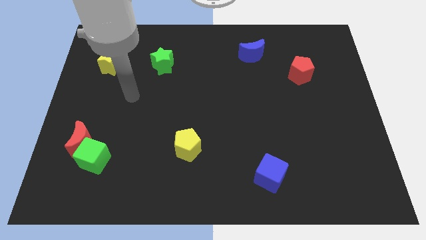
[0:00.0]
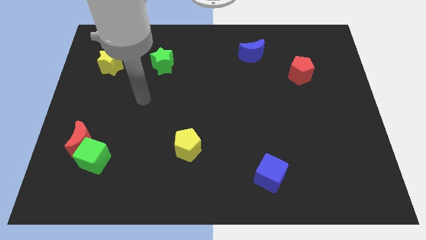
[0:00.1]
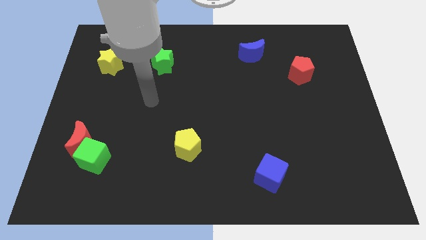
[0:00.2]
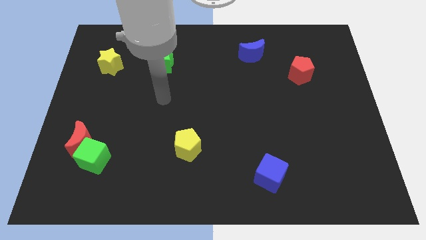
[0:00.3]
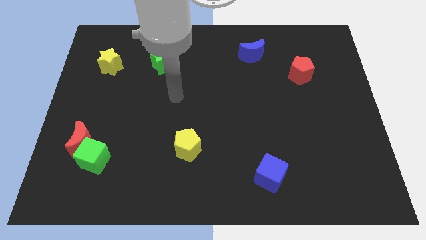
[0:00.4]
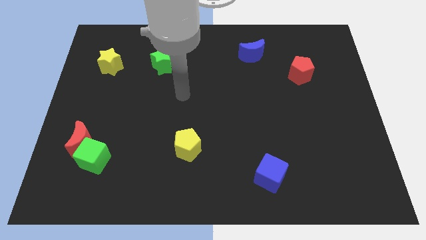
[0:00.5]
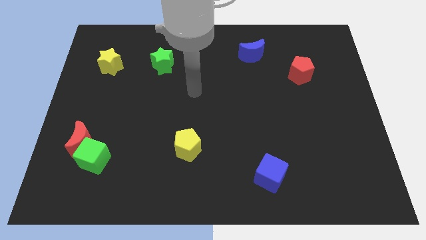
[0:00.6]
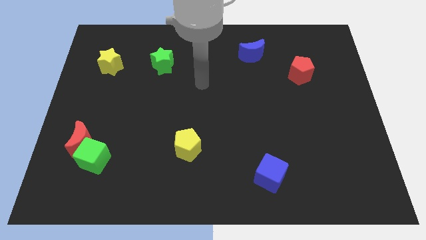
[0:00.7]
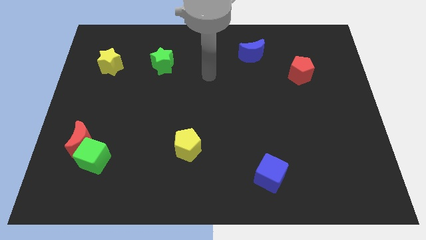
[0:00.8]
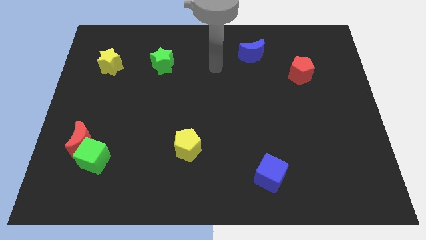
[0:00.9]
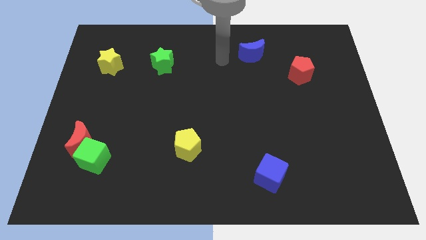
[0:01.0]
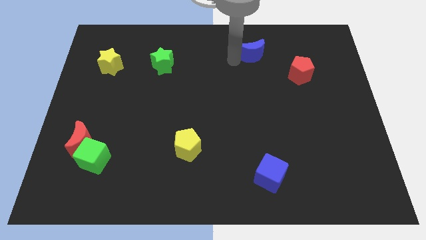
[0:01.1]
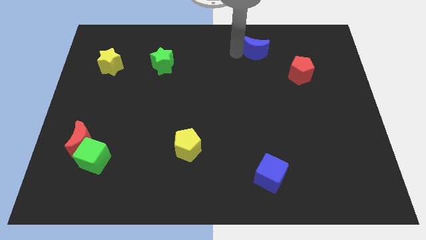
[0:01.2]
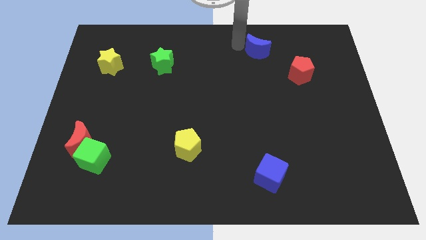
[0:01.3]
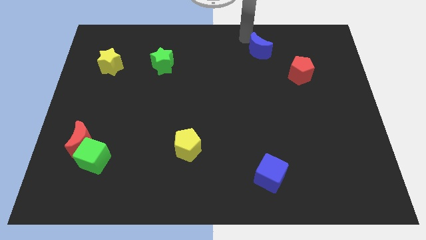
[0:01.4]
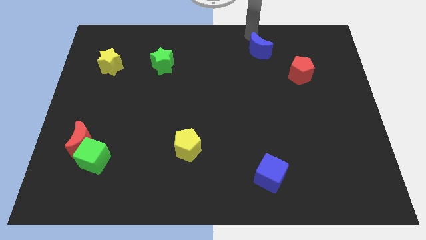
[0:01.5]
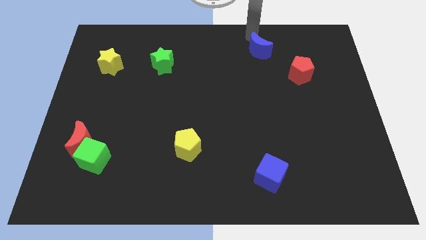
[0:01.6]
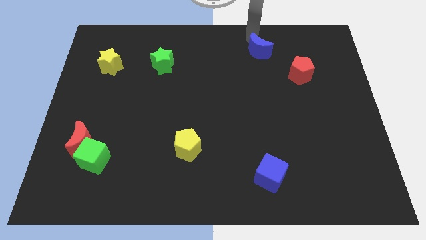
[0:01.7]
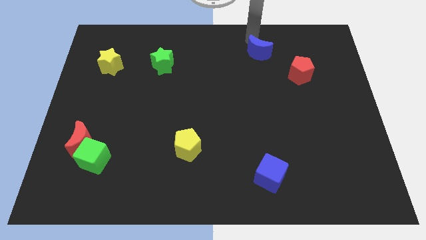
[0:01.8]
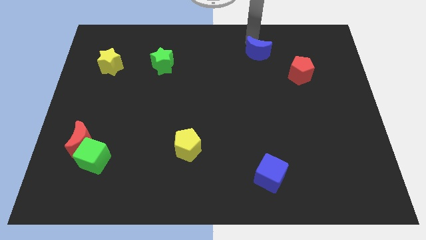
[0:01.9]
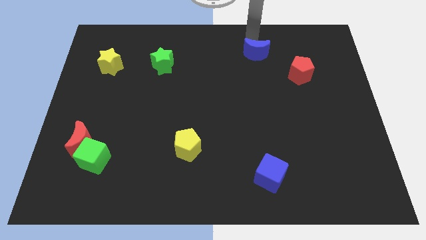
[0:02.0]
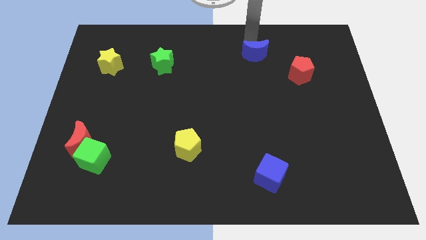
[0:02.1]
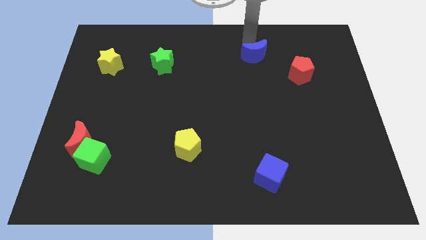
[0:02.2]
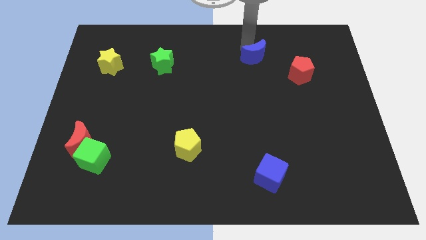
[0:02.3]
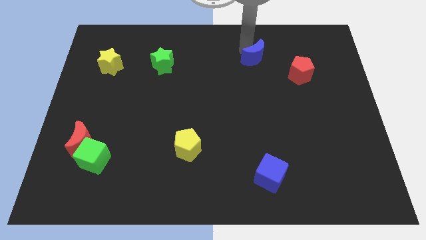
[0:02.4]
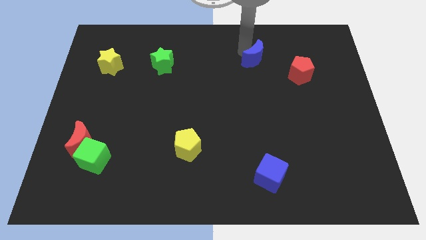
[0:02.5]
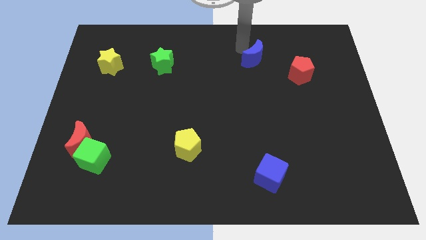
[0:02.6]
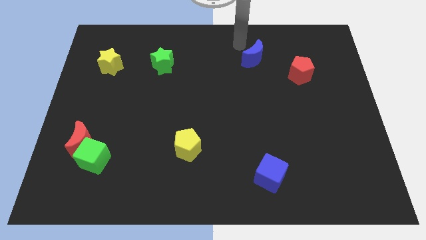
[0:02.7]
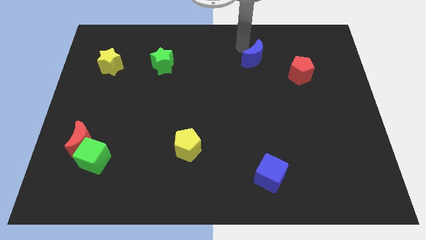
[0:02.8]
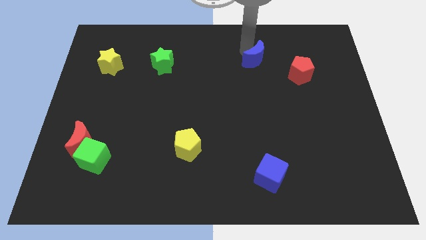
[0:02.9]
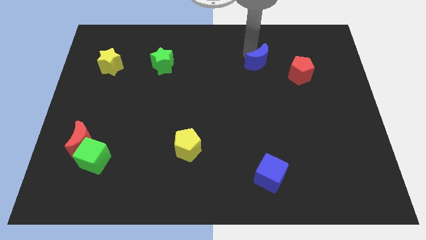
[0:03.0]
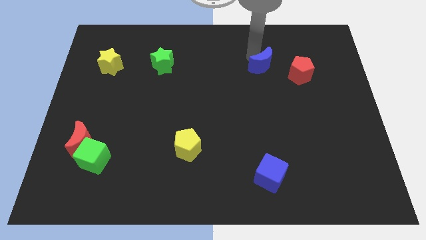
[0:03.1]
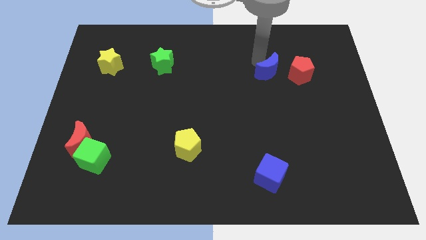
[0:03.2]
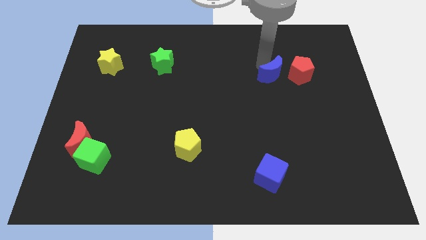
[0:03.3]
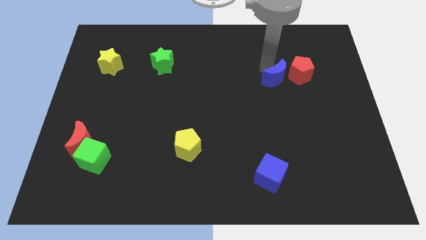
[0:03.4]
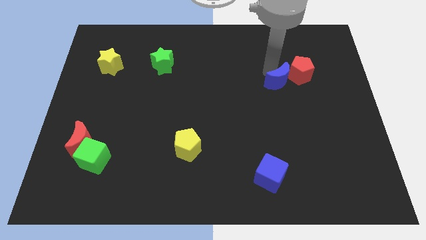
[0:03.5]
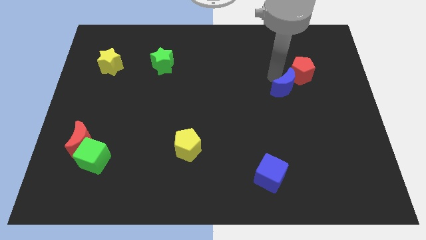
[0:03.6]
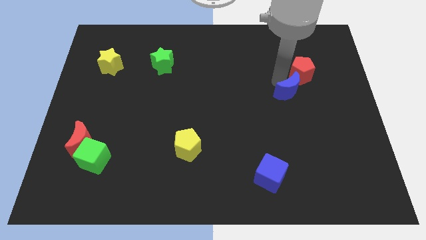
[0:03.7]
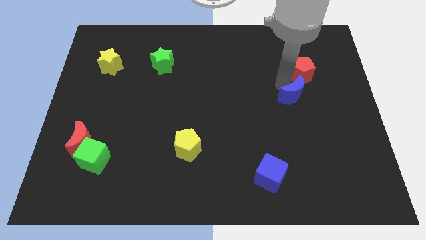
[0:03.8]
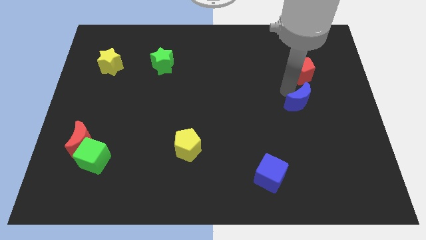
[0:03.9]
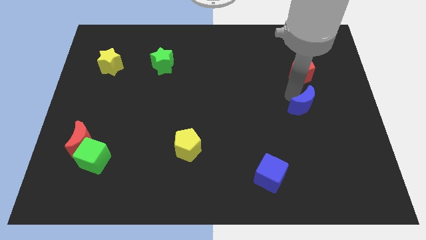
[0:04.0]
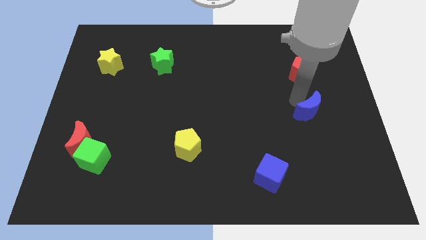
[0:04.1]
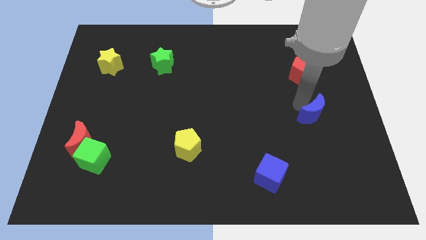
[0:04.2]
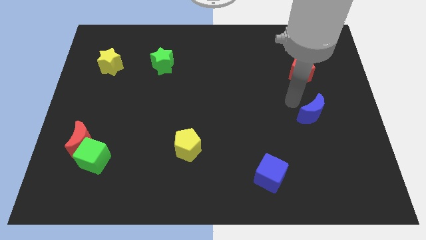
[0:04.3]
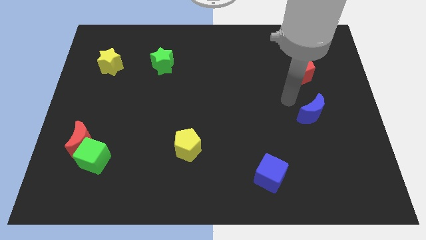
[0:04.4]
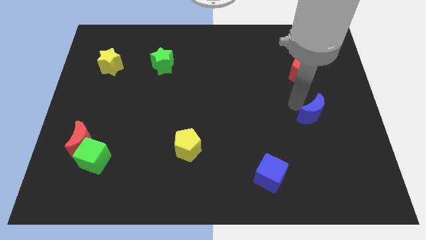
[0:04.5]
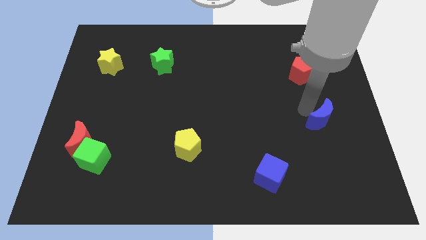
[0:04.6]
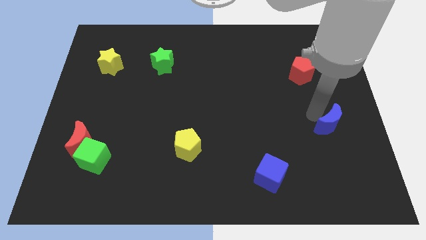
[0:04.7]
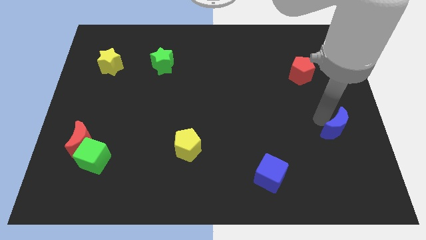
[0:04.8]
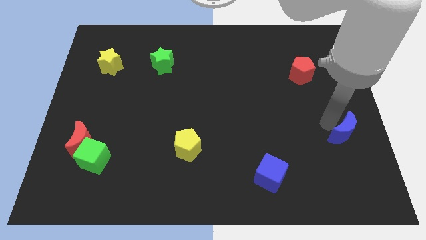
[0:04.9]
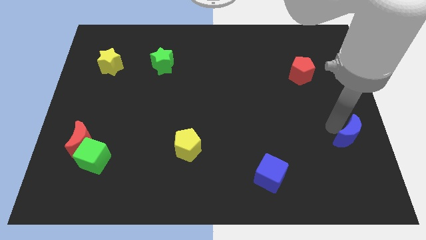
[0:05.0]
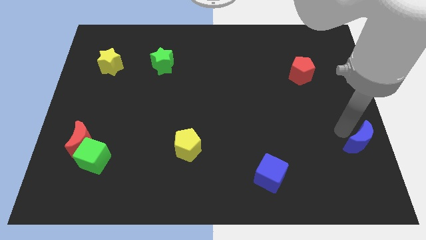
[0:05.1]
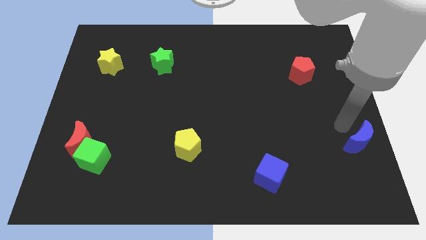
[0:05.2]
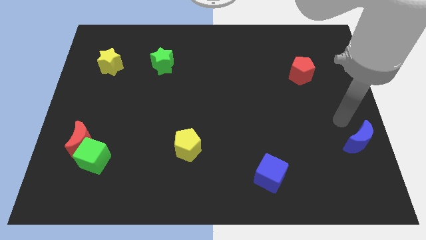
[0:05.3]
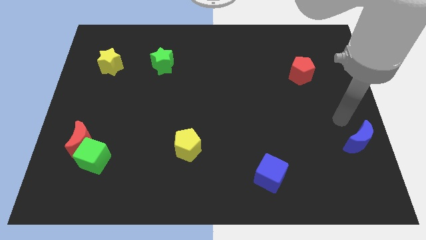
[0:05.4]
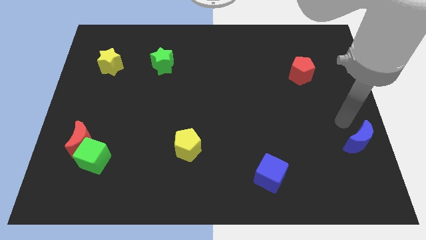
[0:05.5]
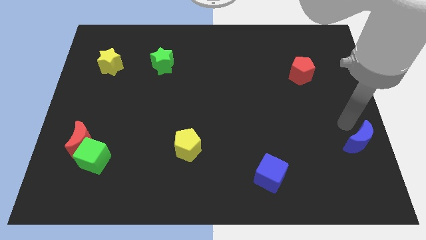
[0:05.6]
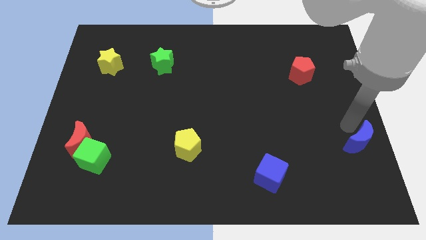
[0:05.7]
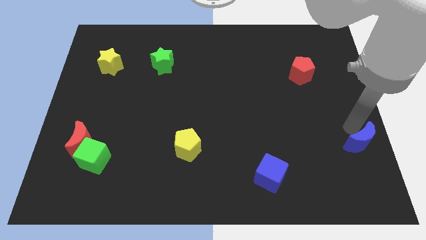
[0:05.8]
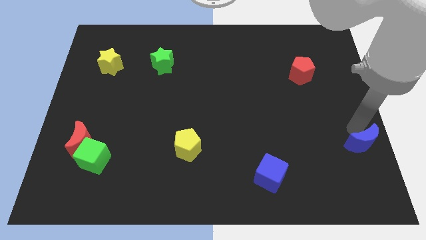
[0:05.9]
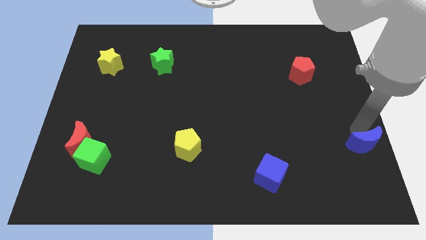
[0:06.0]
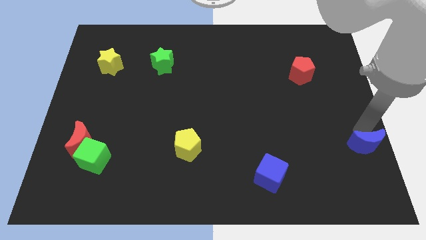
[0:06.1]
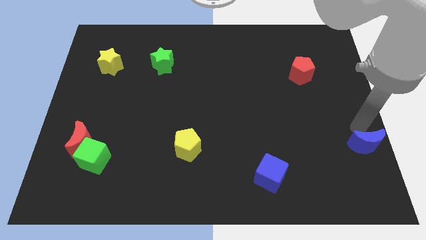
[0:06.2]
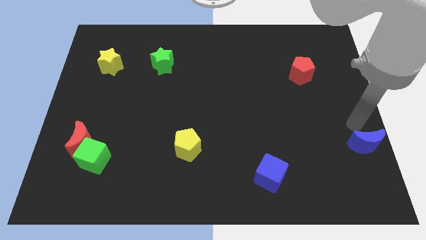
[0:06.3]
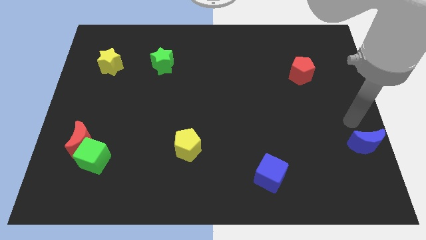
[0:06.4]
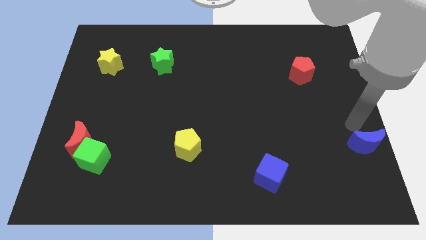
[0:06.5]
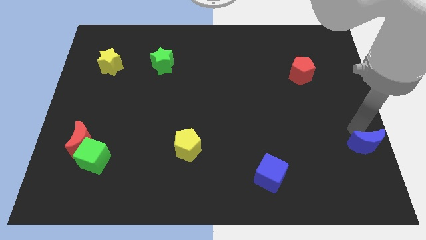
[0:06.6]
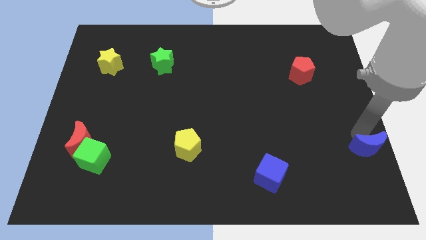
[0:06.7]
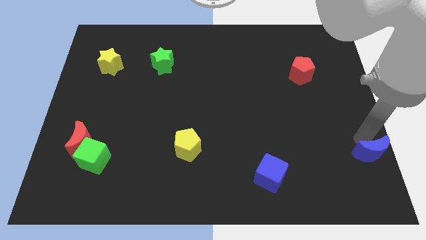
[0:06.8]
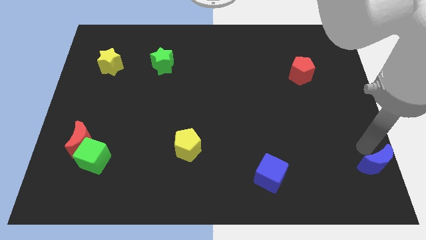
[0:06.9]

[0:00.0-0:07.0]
push the blue moon to the bottom right of the board
